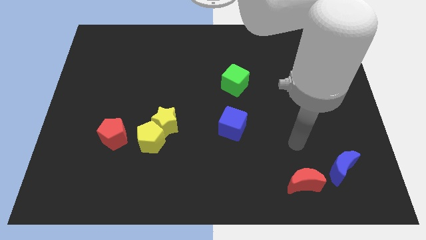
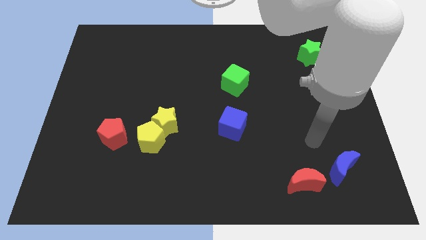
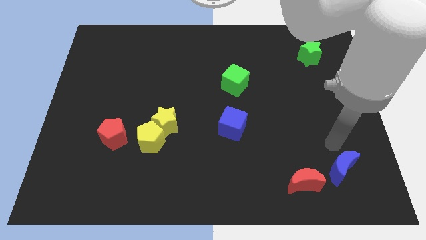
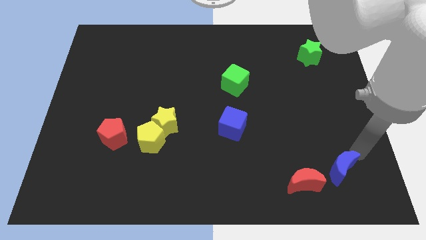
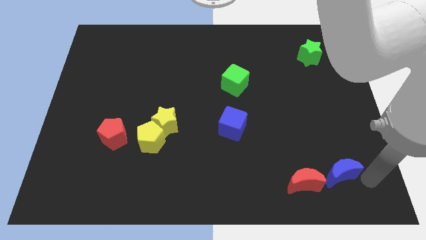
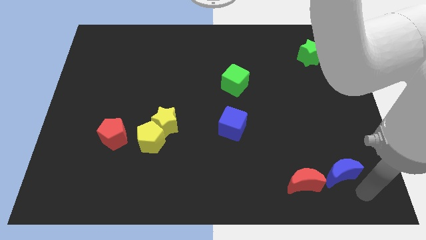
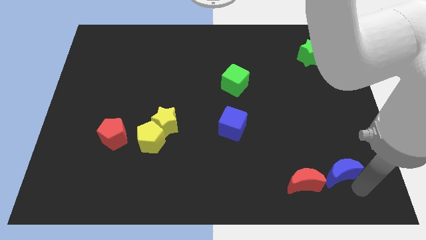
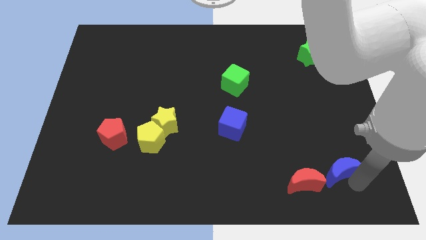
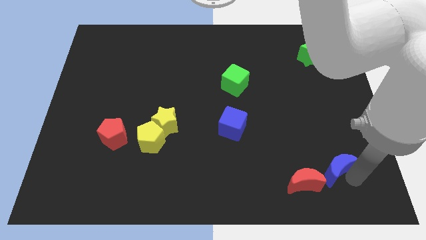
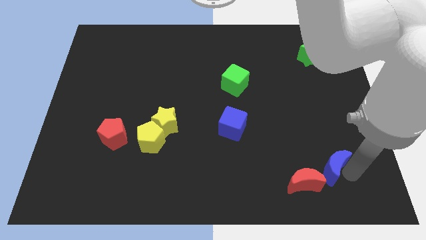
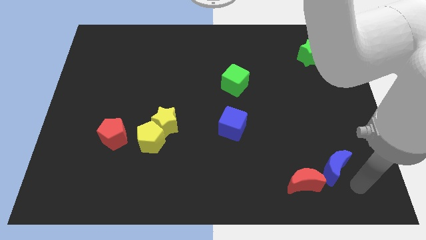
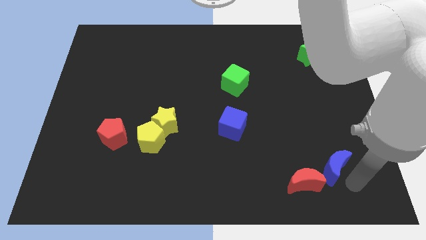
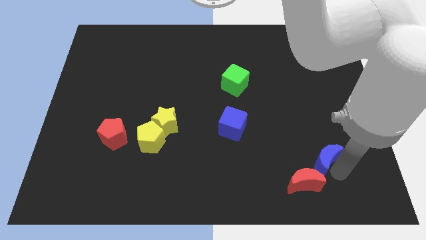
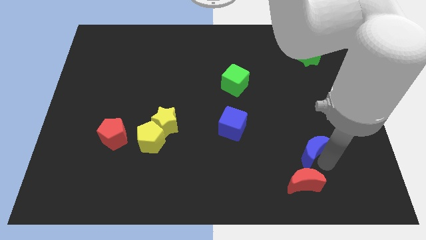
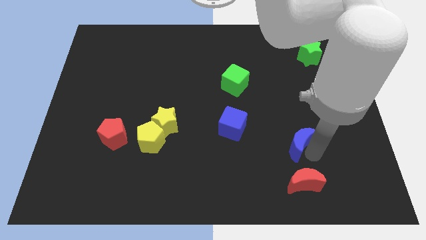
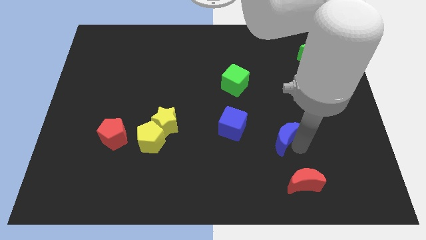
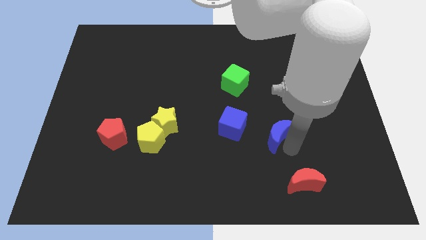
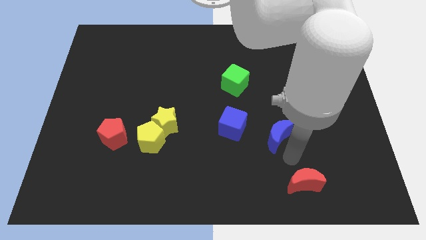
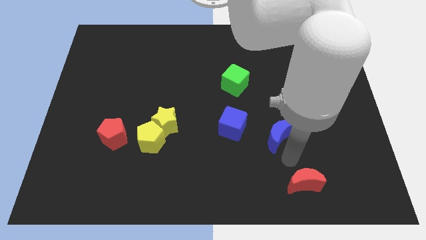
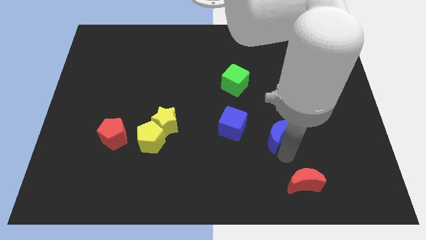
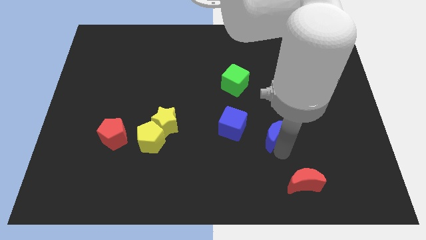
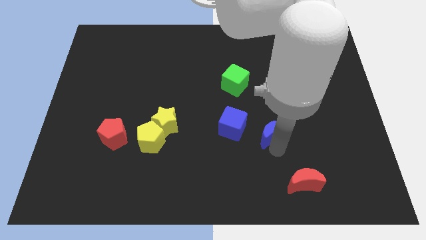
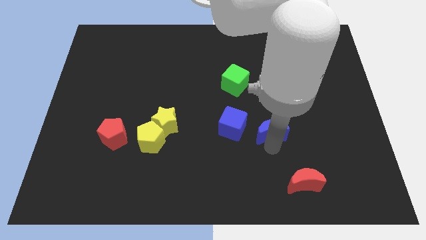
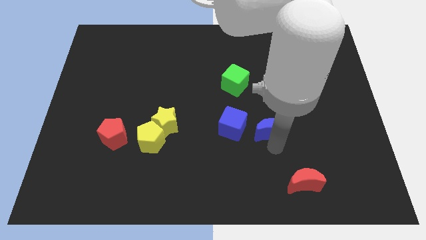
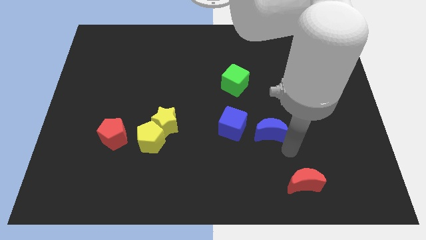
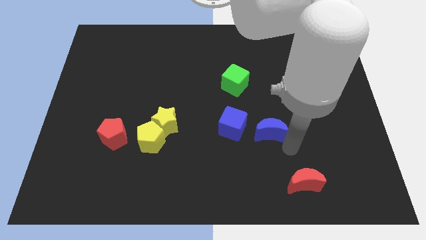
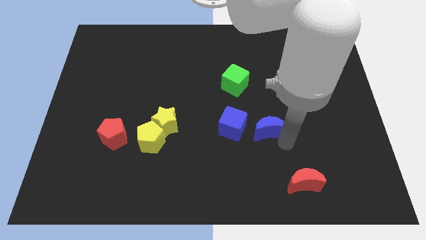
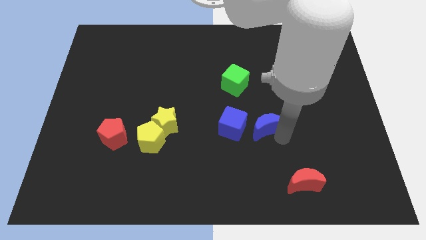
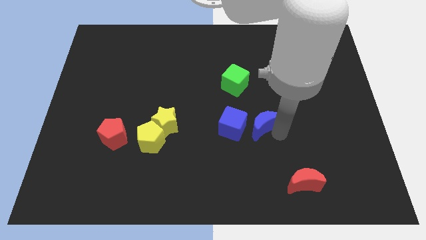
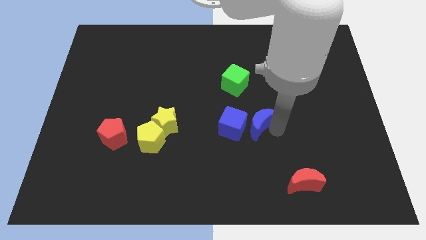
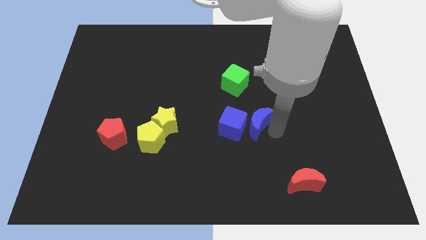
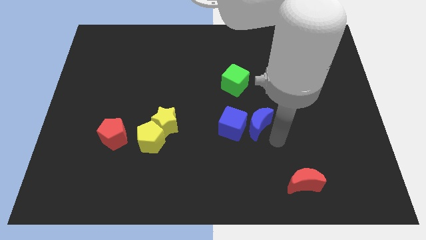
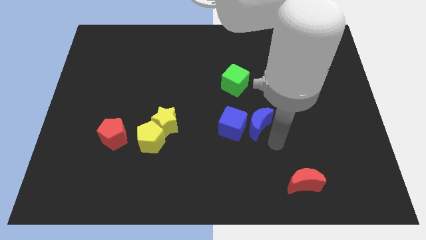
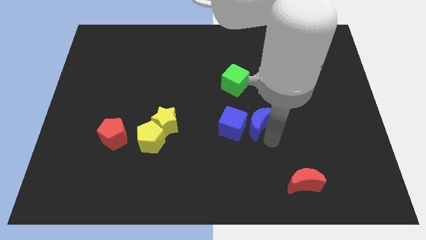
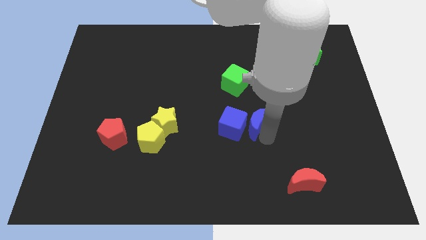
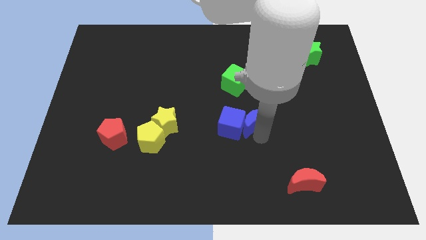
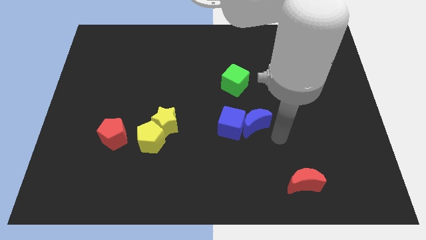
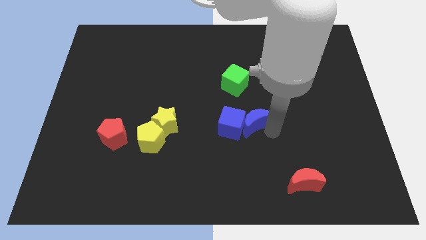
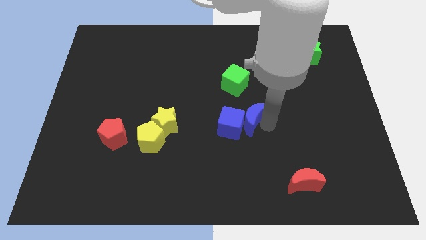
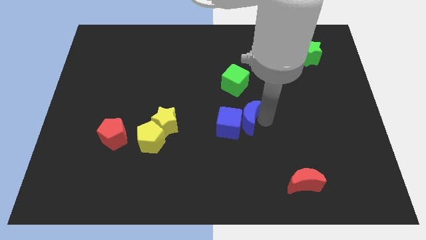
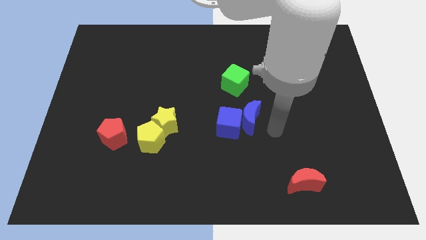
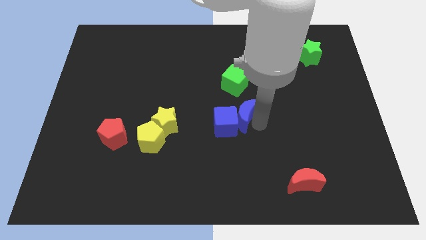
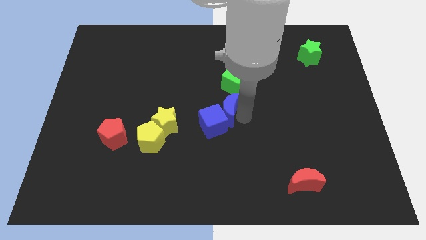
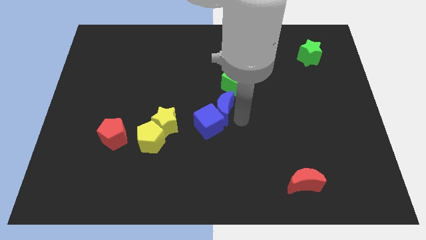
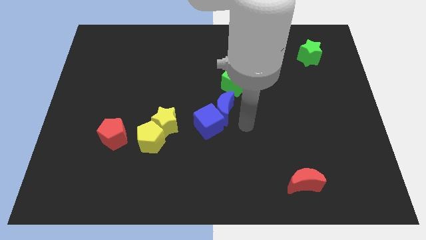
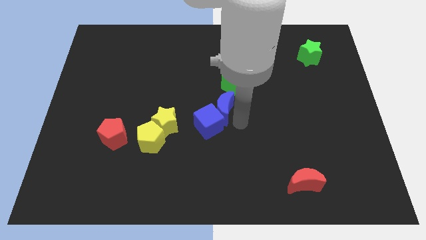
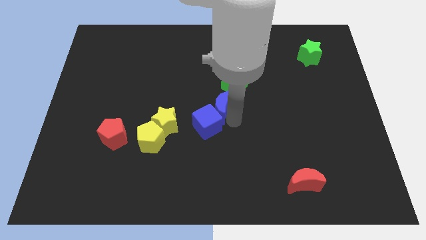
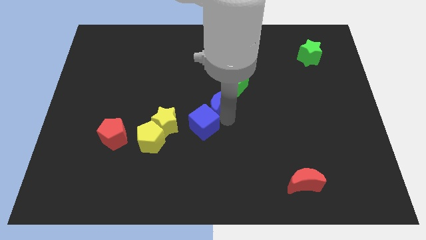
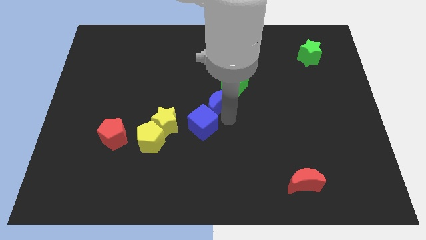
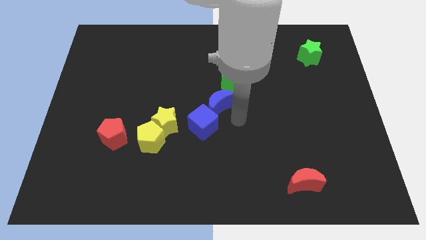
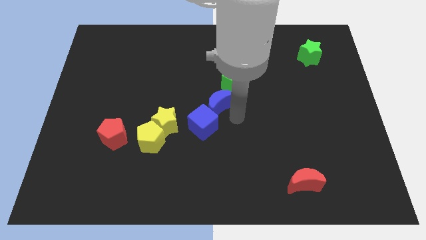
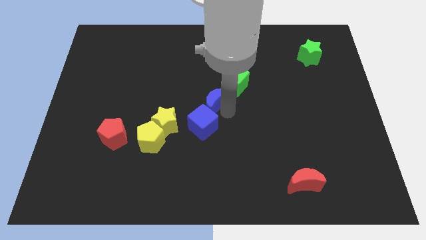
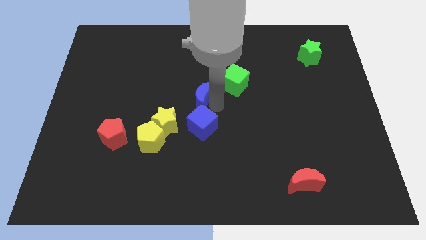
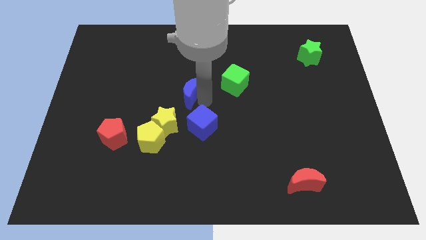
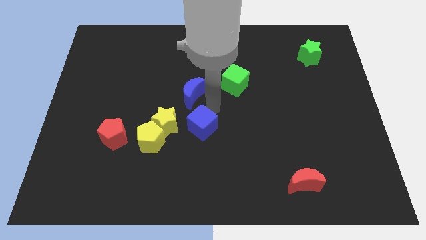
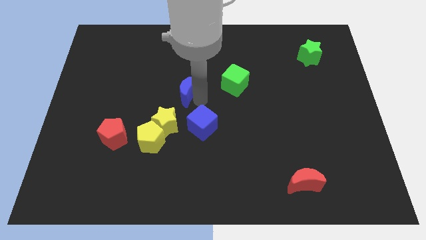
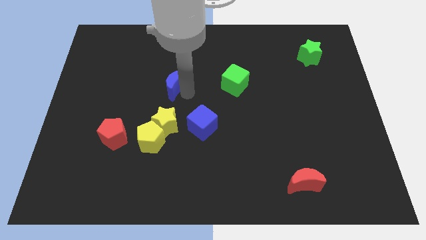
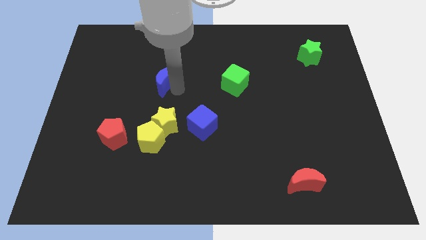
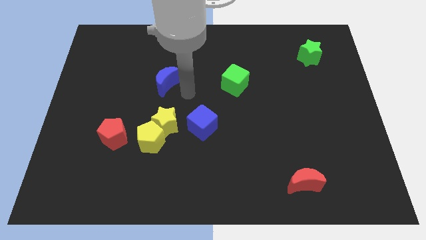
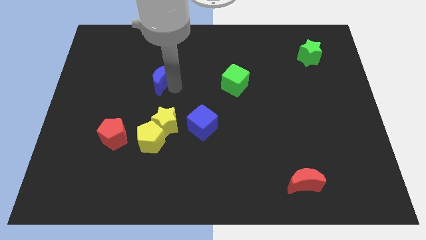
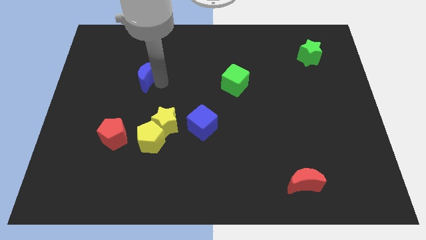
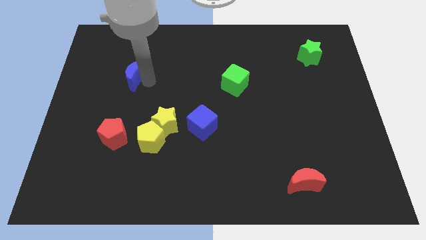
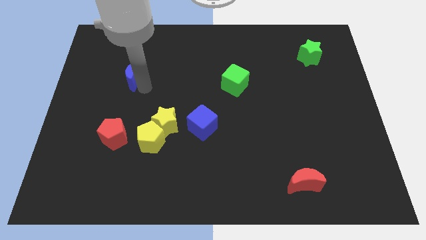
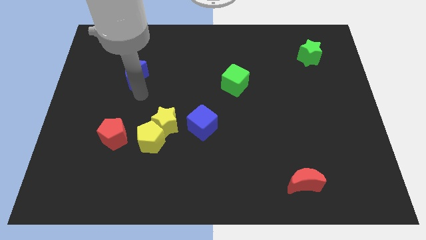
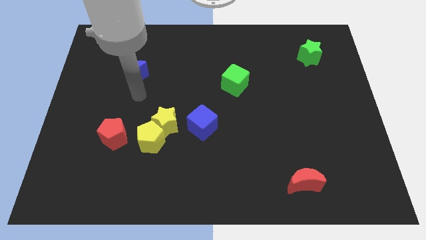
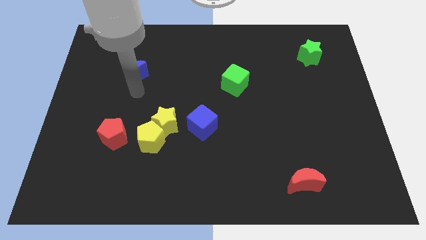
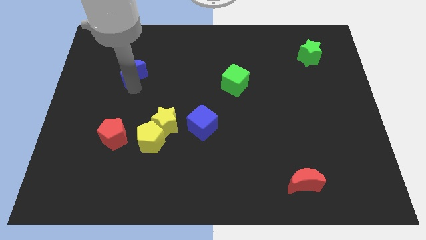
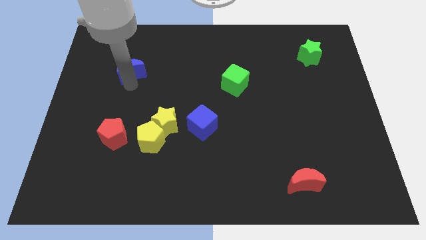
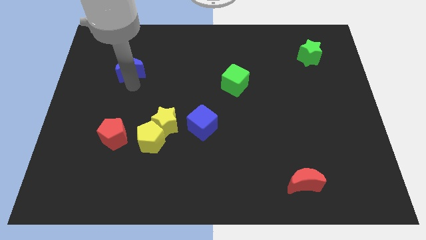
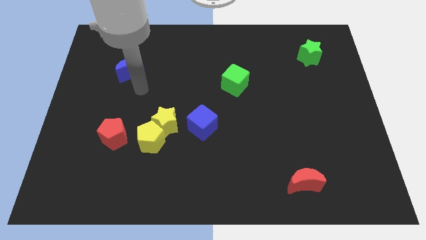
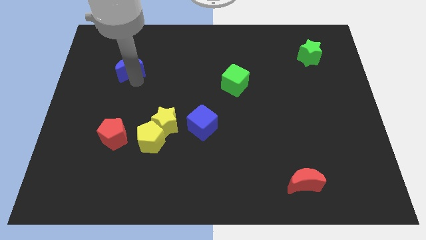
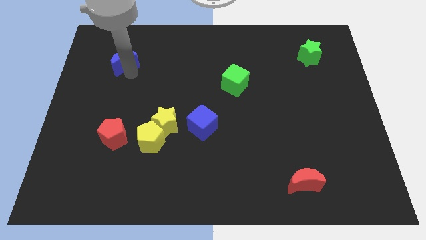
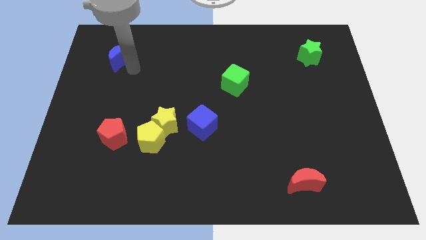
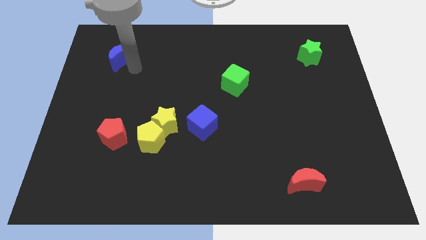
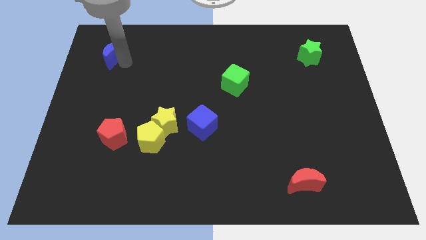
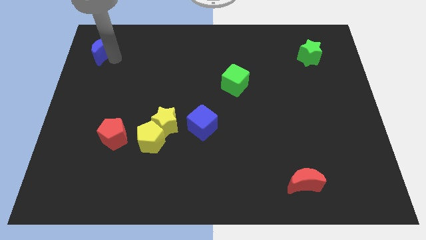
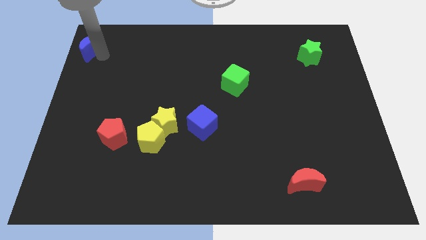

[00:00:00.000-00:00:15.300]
put the blue moon to the top left

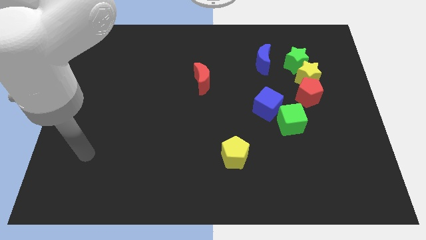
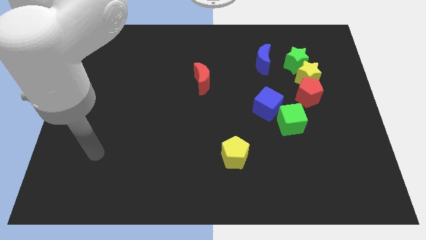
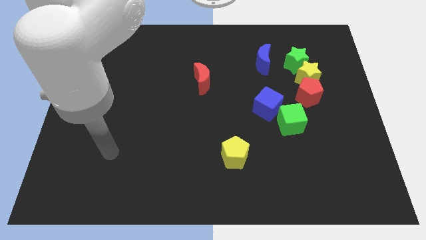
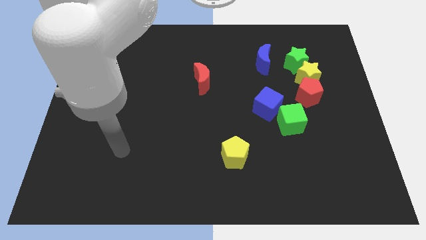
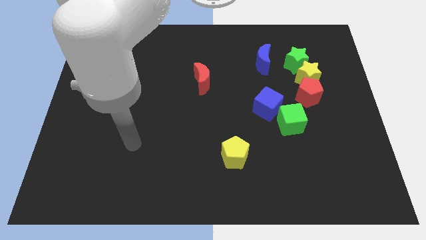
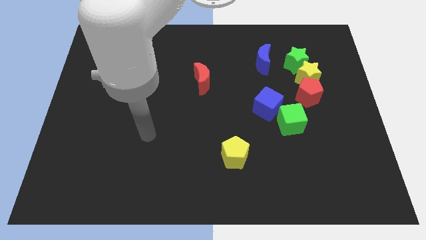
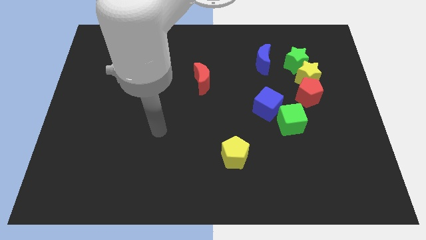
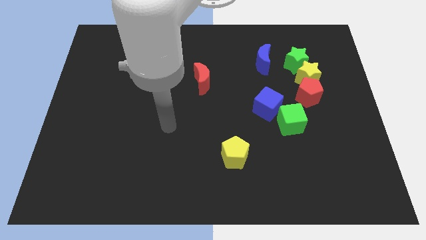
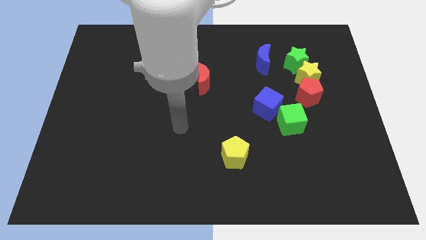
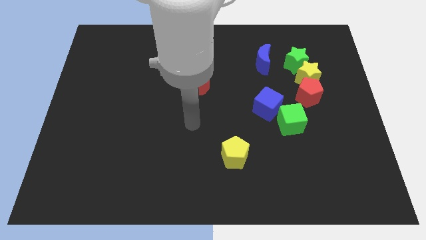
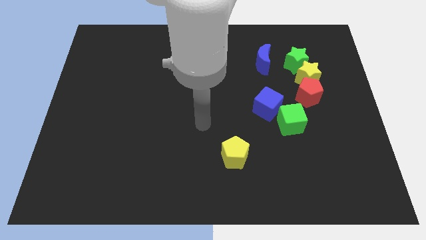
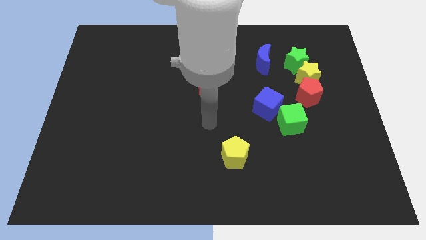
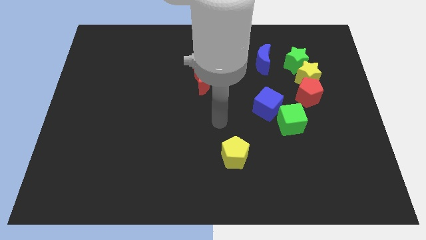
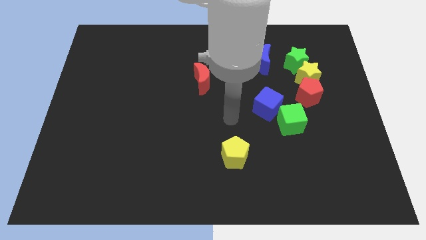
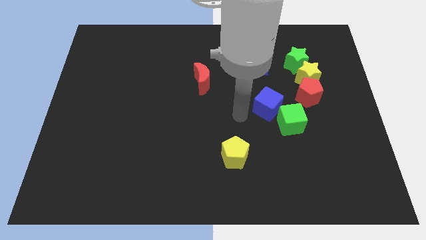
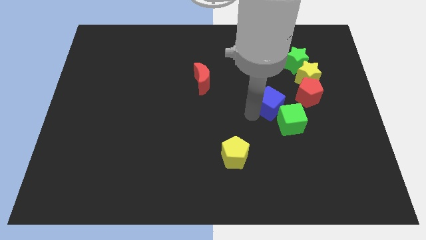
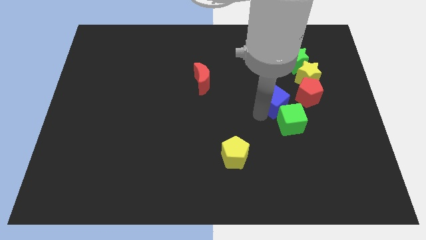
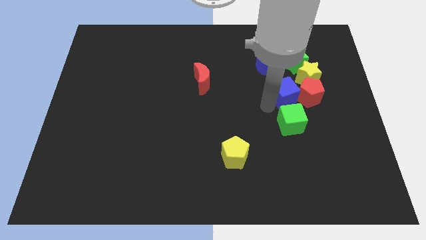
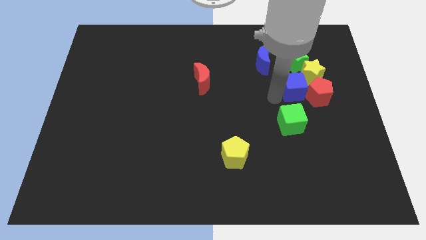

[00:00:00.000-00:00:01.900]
put the red pentagon to the center right
